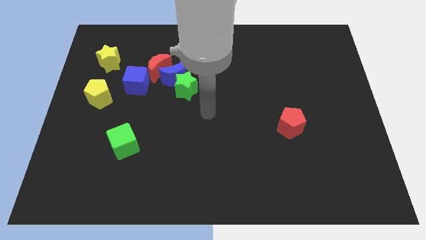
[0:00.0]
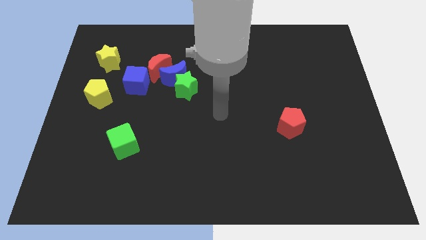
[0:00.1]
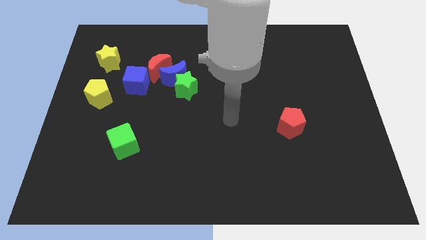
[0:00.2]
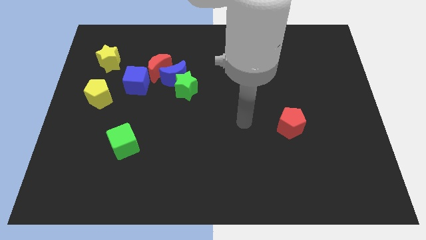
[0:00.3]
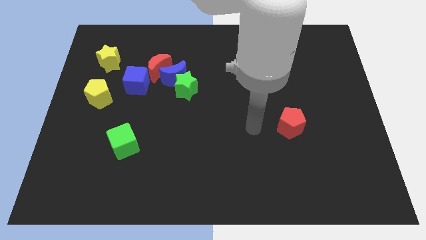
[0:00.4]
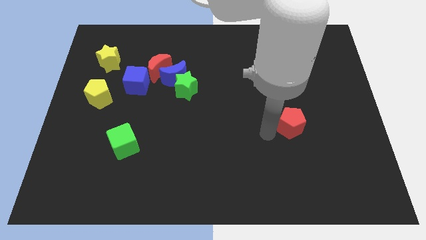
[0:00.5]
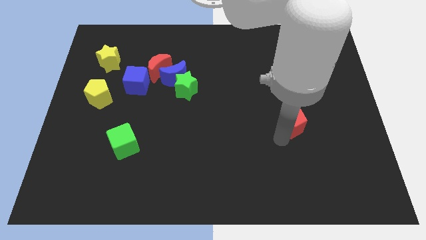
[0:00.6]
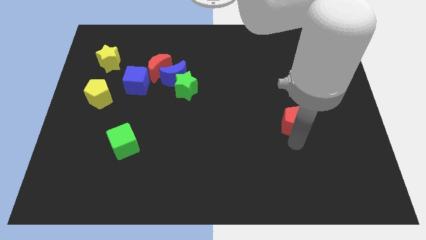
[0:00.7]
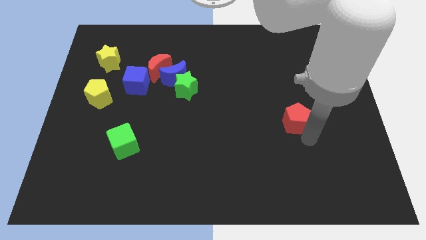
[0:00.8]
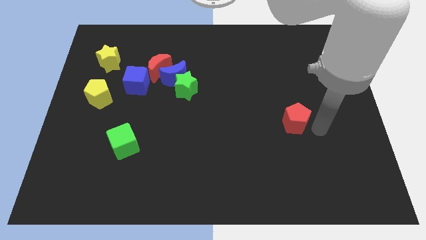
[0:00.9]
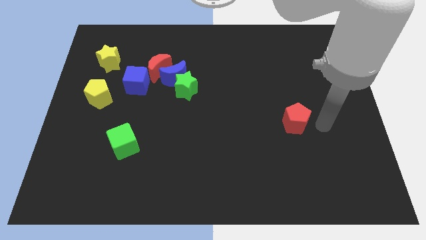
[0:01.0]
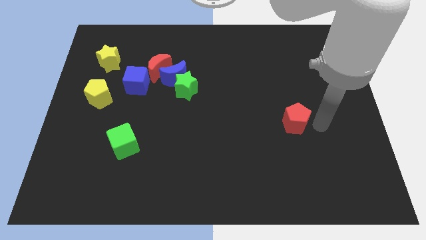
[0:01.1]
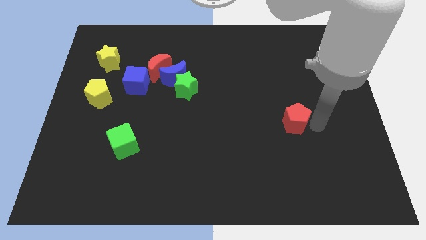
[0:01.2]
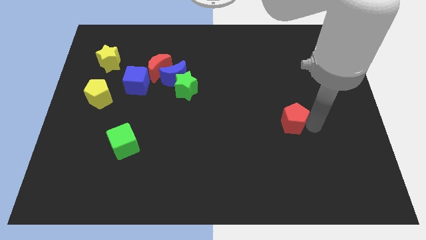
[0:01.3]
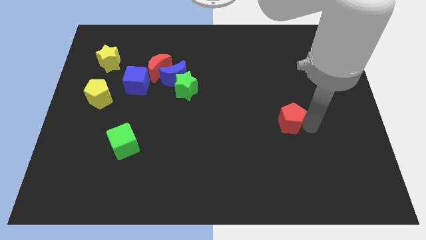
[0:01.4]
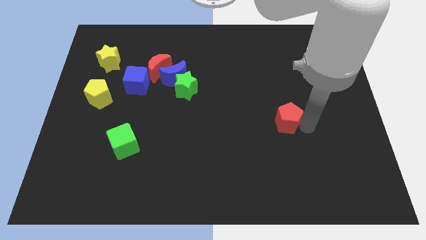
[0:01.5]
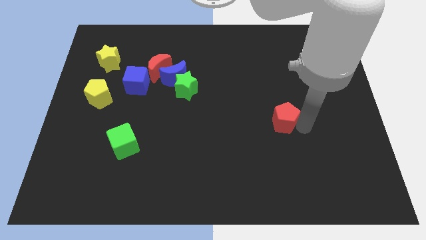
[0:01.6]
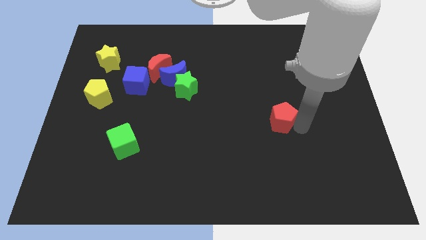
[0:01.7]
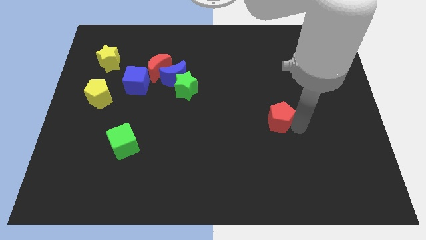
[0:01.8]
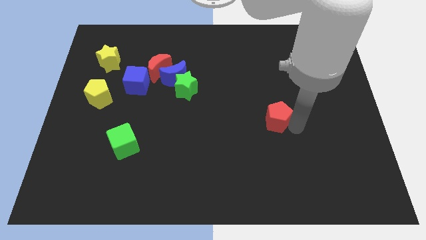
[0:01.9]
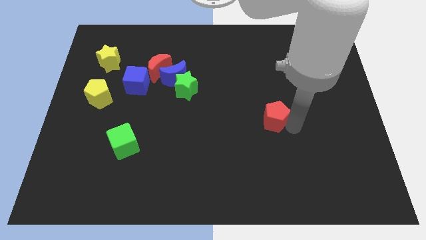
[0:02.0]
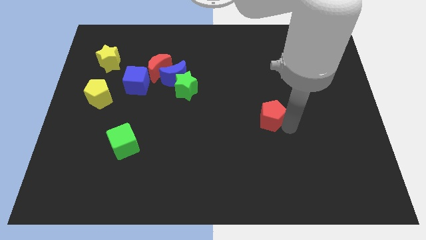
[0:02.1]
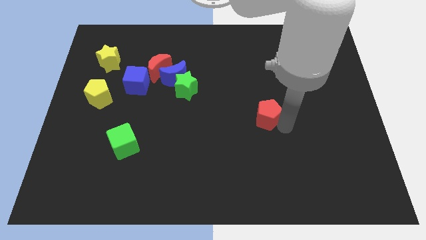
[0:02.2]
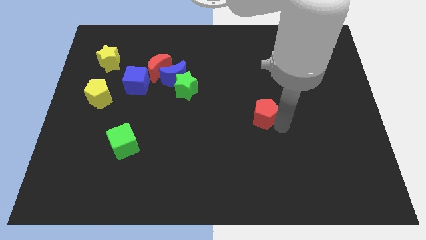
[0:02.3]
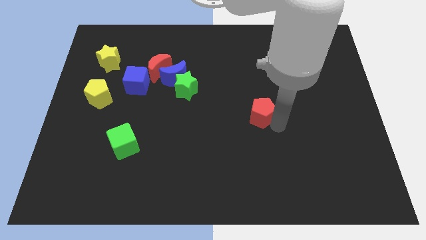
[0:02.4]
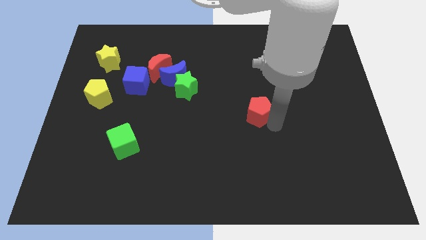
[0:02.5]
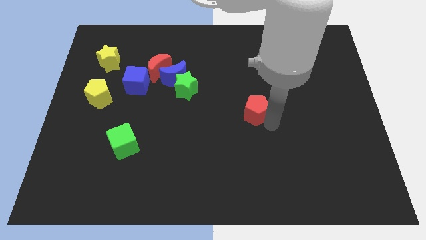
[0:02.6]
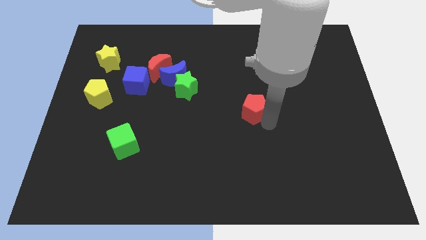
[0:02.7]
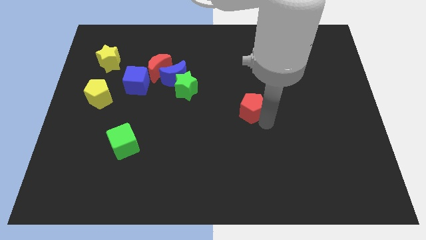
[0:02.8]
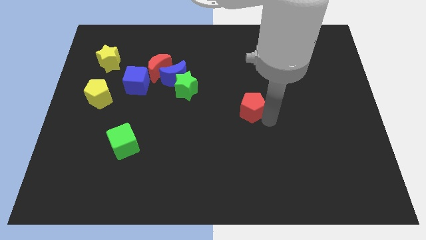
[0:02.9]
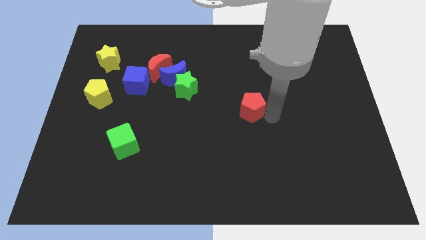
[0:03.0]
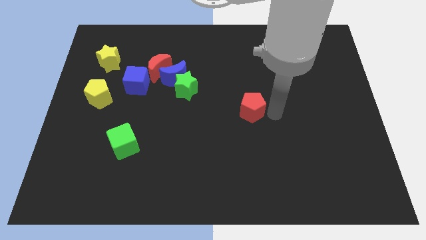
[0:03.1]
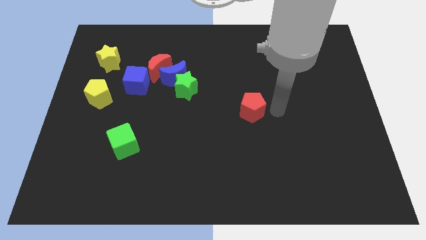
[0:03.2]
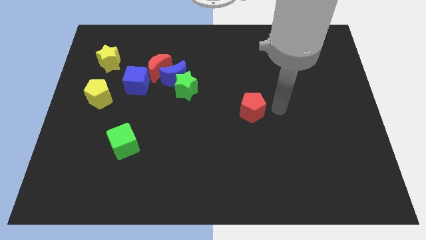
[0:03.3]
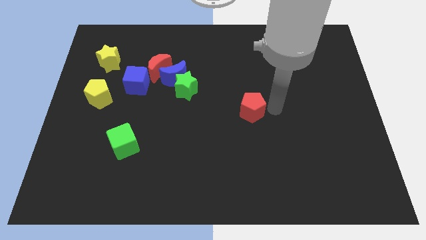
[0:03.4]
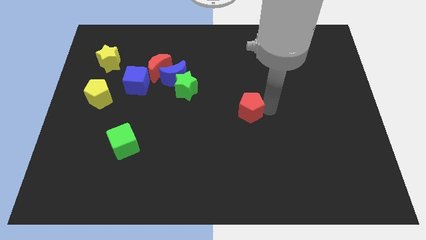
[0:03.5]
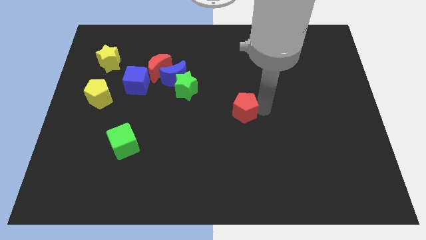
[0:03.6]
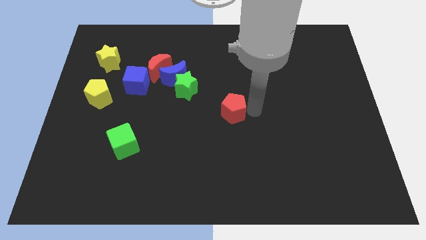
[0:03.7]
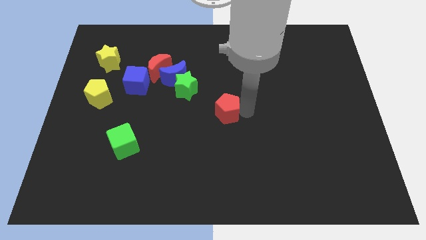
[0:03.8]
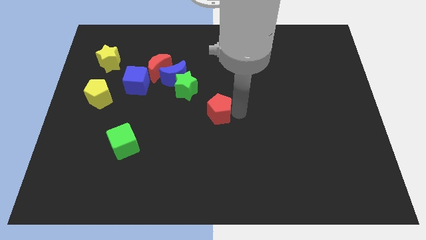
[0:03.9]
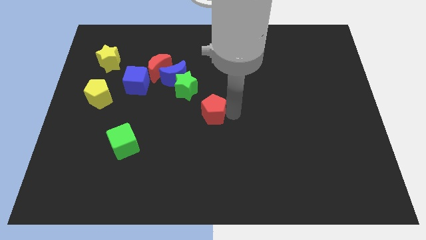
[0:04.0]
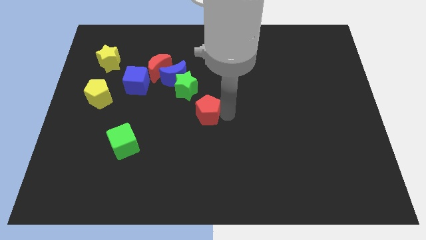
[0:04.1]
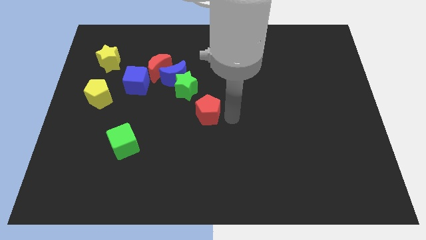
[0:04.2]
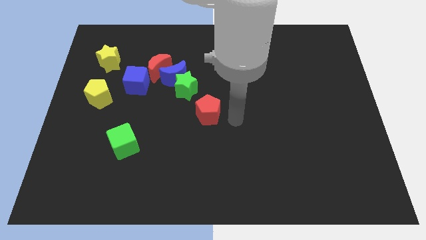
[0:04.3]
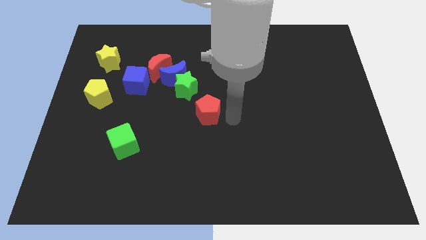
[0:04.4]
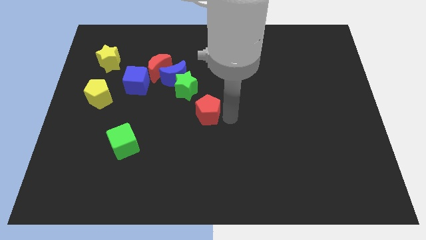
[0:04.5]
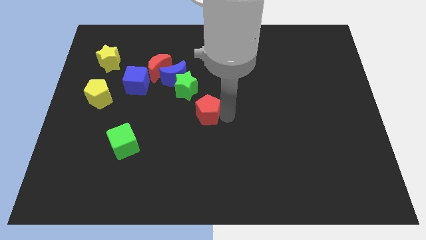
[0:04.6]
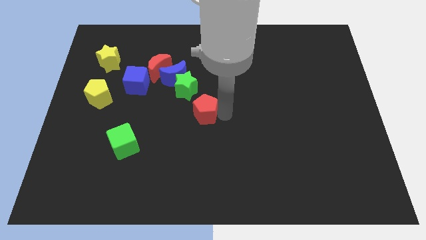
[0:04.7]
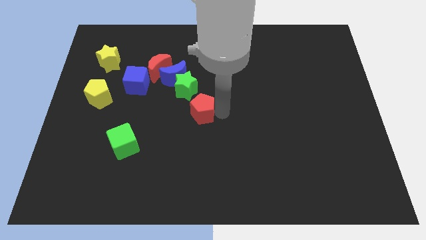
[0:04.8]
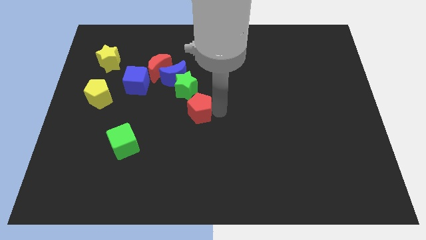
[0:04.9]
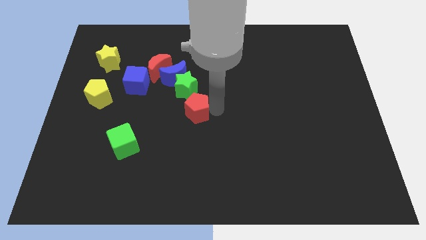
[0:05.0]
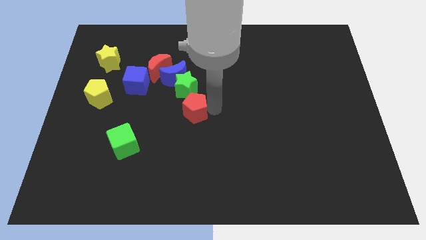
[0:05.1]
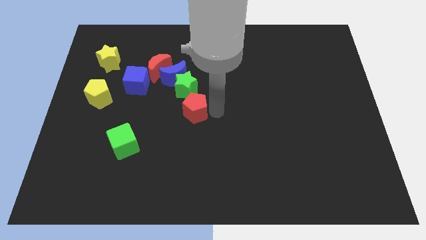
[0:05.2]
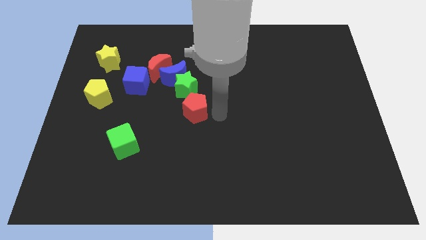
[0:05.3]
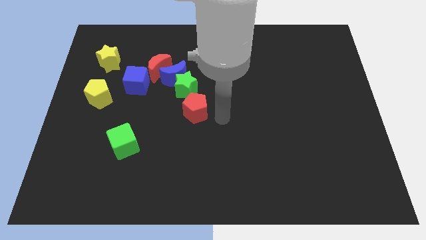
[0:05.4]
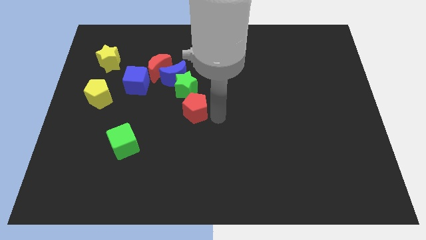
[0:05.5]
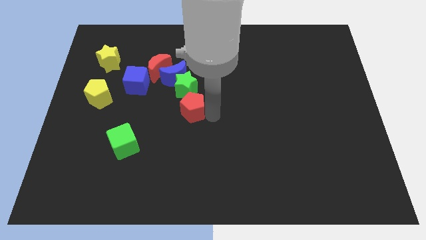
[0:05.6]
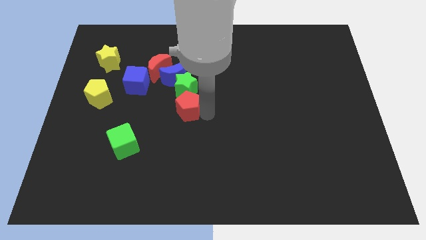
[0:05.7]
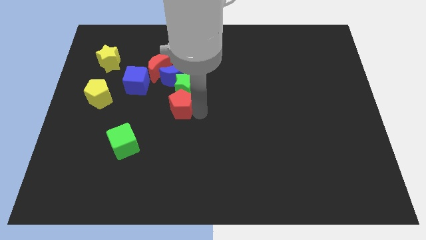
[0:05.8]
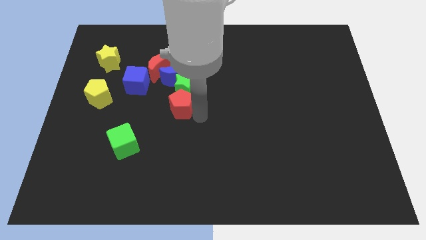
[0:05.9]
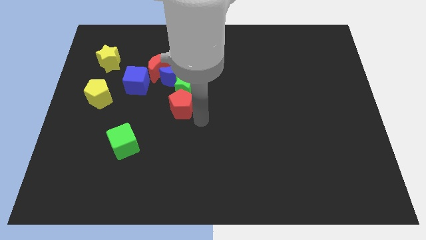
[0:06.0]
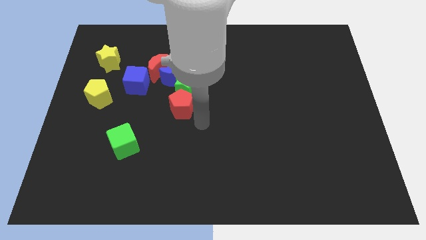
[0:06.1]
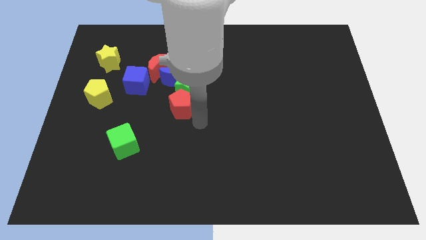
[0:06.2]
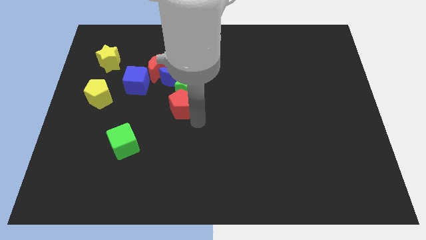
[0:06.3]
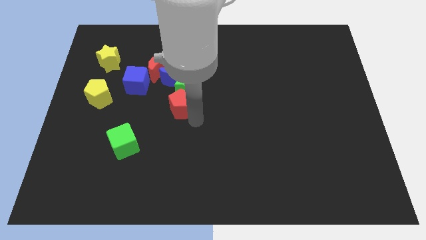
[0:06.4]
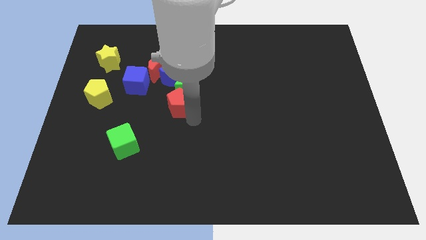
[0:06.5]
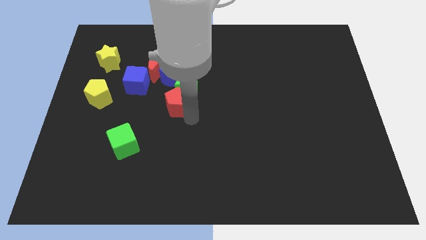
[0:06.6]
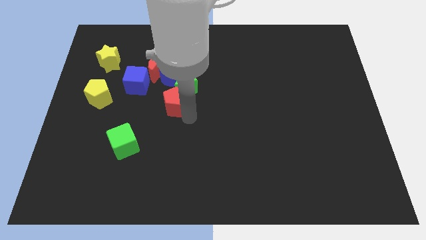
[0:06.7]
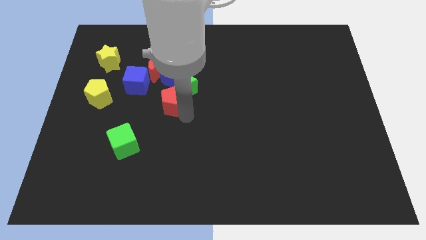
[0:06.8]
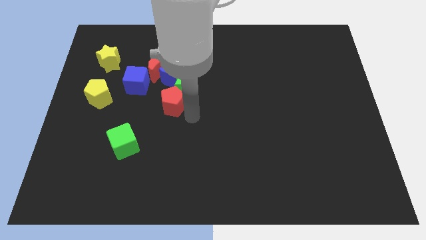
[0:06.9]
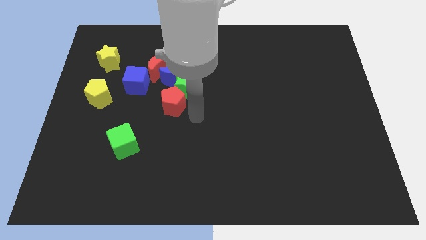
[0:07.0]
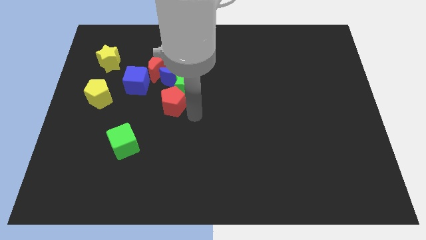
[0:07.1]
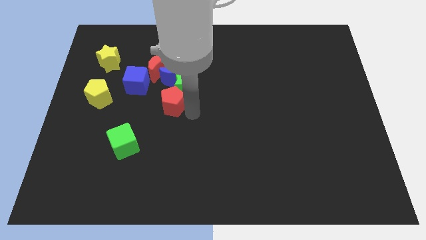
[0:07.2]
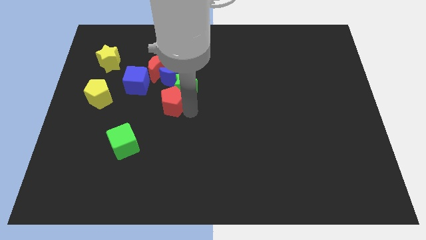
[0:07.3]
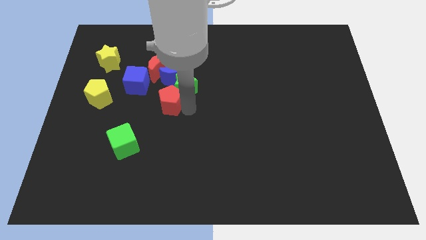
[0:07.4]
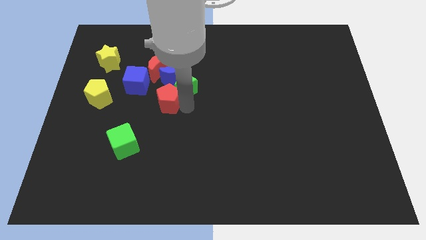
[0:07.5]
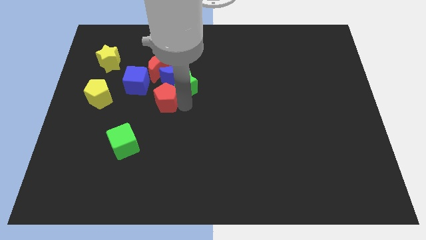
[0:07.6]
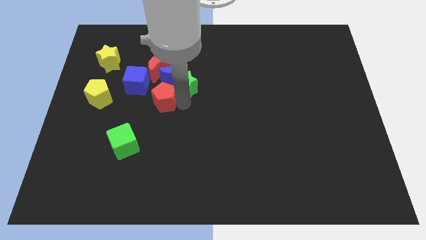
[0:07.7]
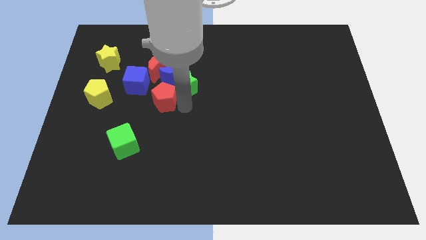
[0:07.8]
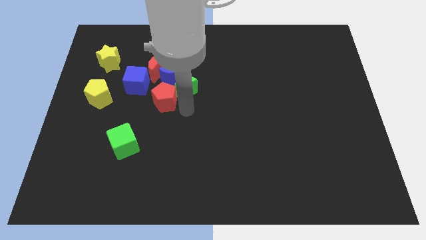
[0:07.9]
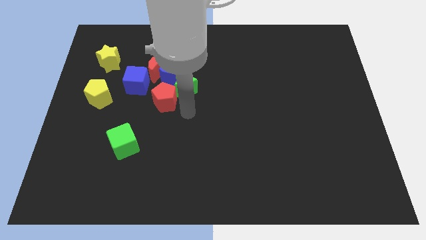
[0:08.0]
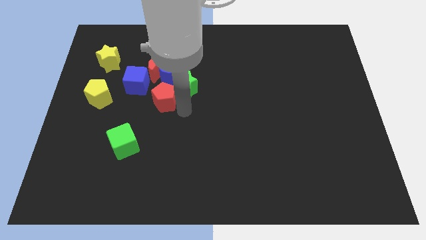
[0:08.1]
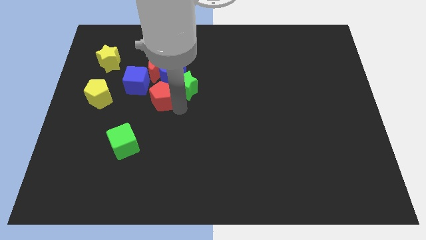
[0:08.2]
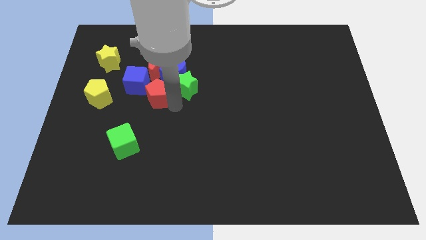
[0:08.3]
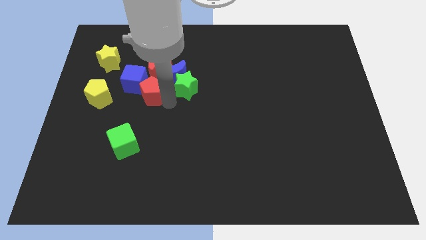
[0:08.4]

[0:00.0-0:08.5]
put the red pentagon towards the blue cube
